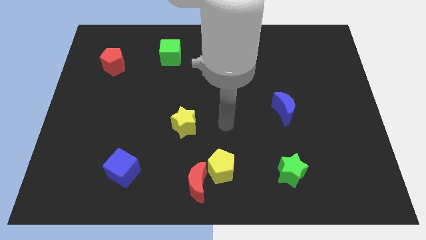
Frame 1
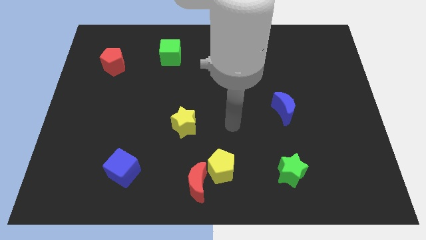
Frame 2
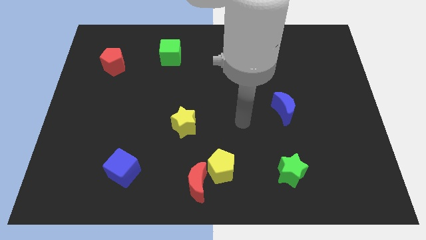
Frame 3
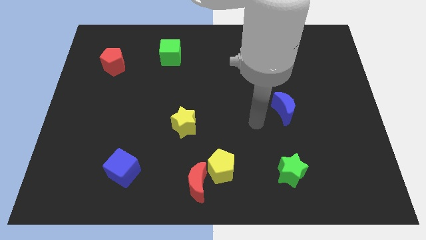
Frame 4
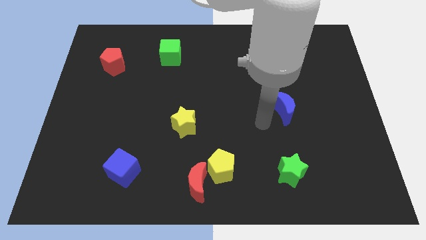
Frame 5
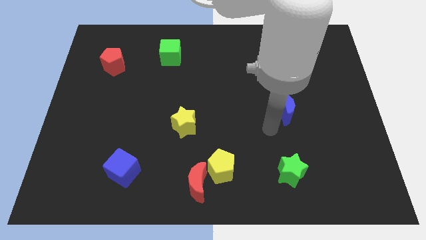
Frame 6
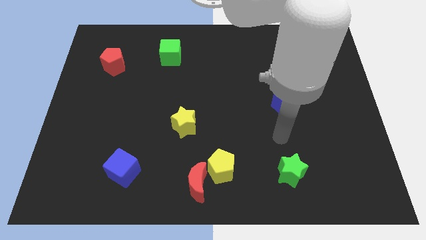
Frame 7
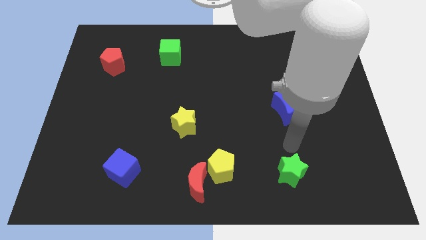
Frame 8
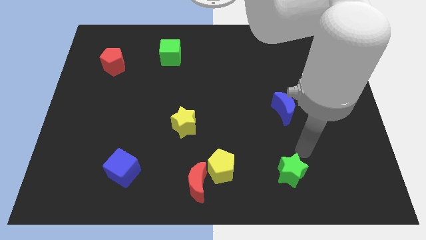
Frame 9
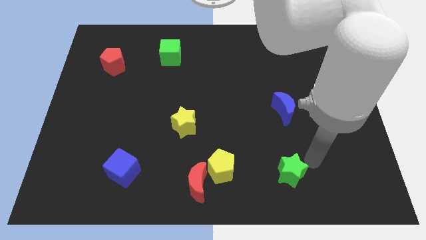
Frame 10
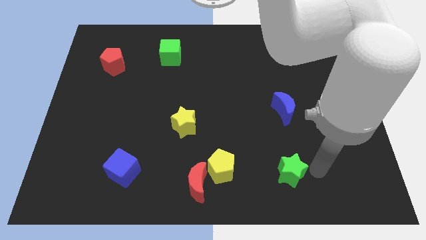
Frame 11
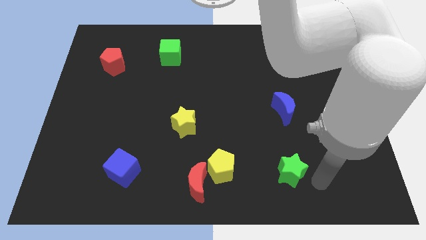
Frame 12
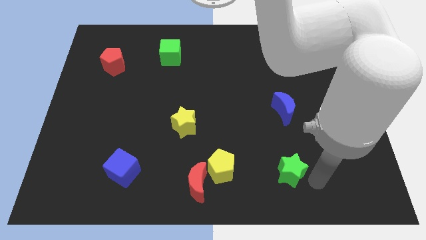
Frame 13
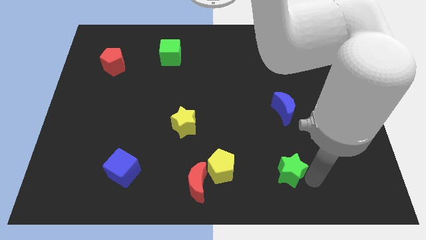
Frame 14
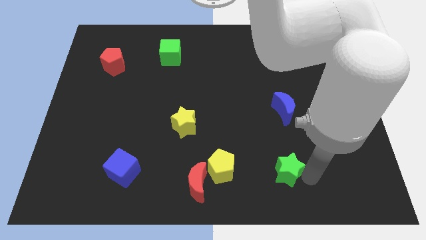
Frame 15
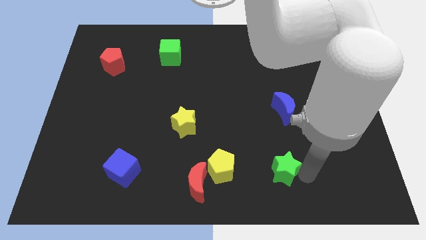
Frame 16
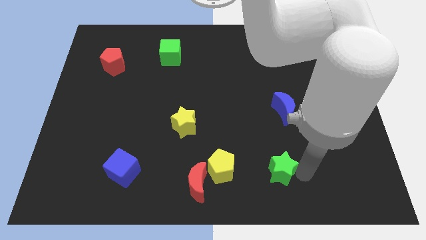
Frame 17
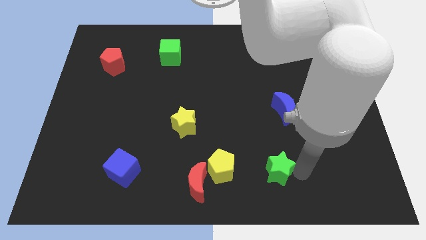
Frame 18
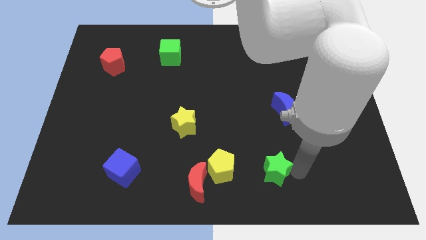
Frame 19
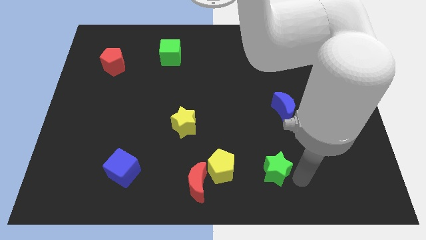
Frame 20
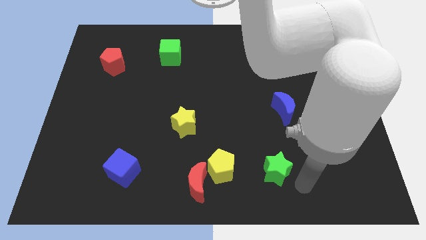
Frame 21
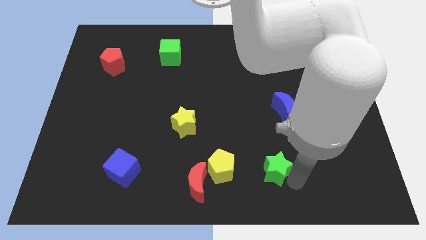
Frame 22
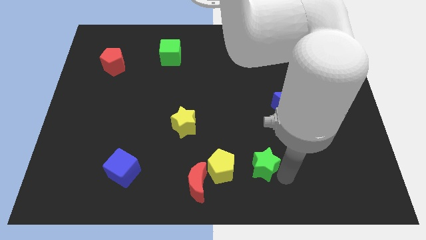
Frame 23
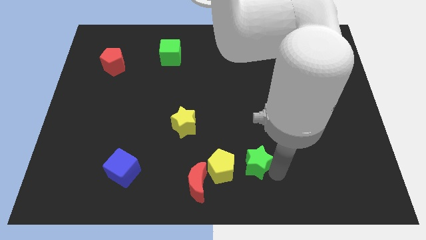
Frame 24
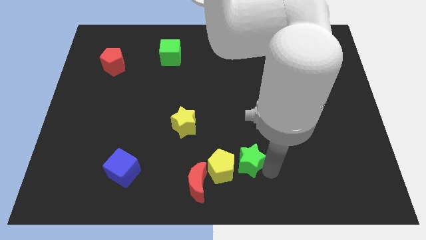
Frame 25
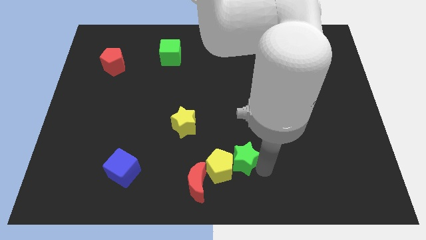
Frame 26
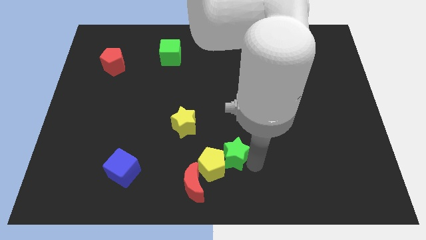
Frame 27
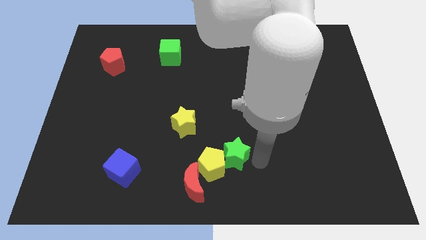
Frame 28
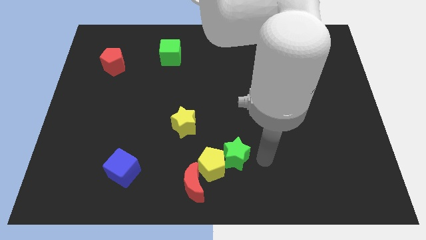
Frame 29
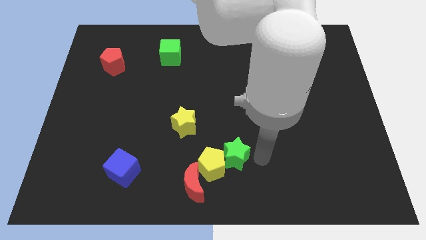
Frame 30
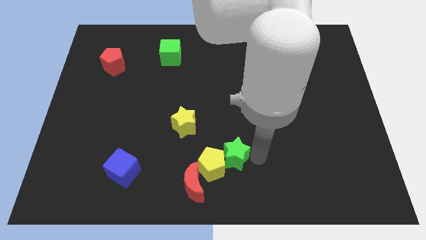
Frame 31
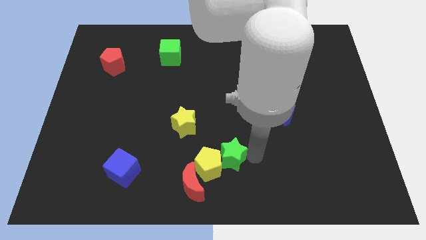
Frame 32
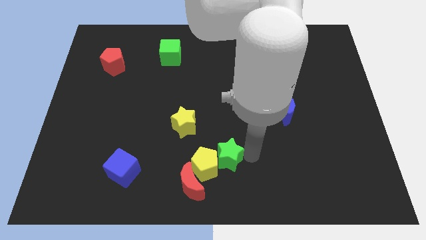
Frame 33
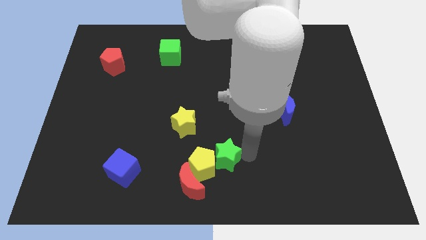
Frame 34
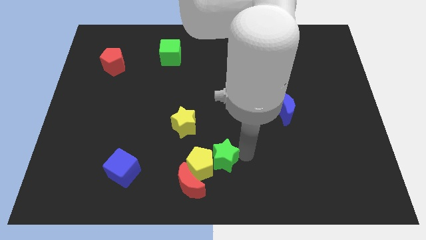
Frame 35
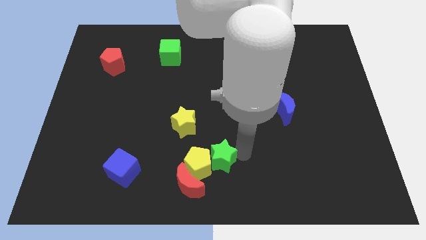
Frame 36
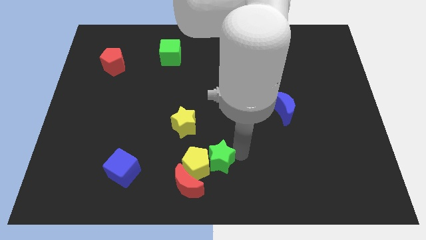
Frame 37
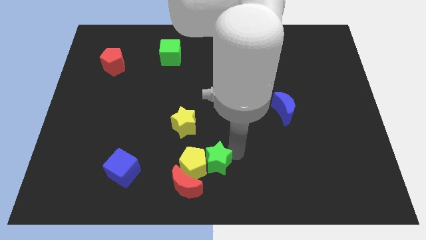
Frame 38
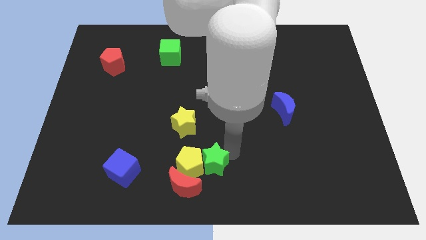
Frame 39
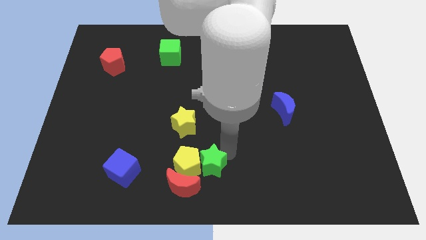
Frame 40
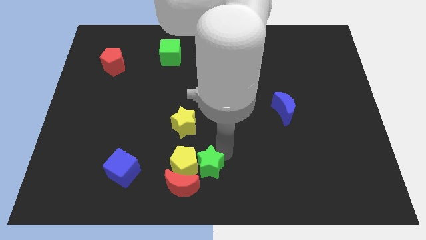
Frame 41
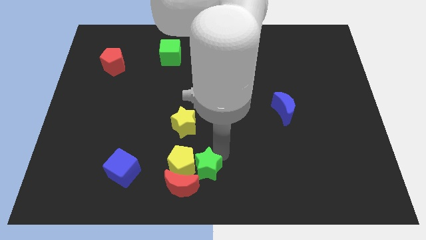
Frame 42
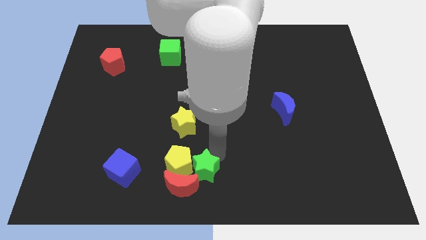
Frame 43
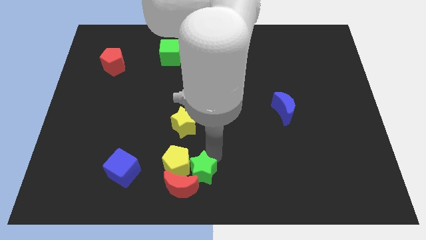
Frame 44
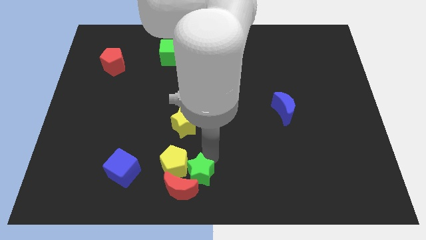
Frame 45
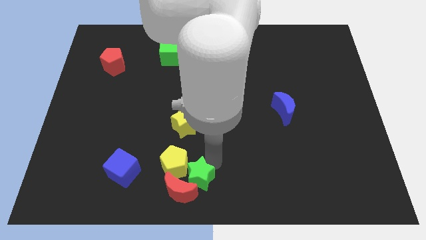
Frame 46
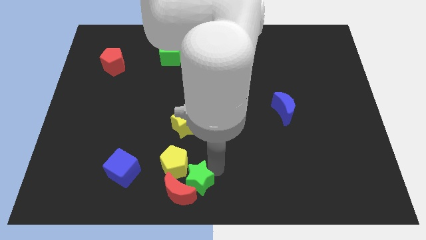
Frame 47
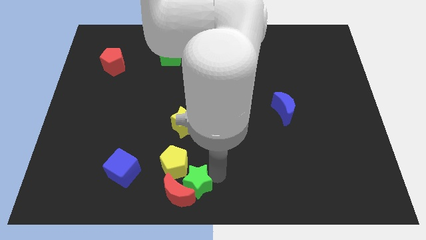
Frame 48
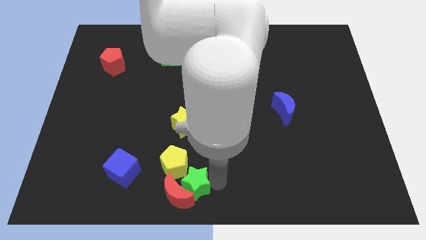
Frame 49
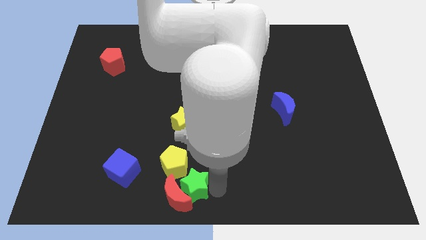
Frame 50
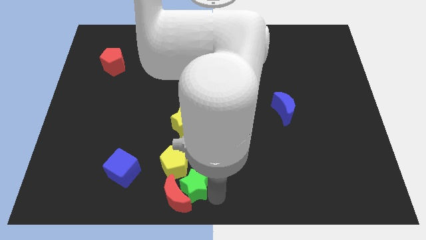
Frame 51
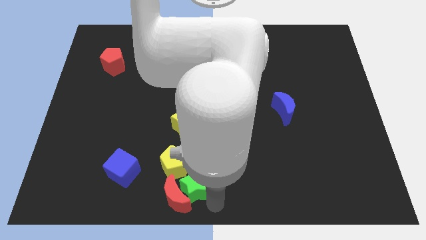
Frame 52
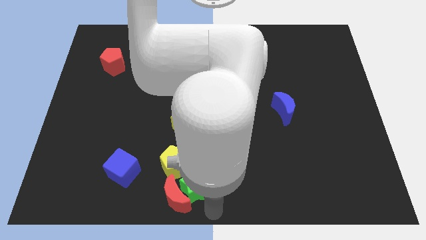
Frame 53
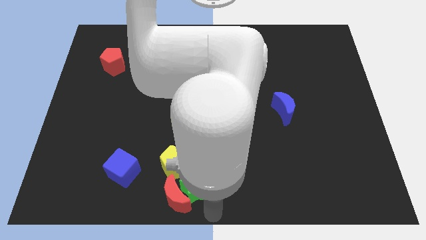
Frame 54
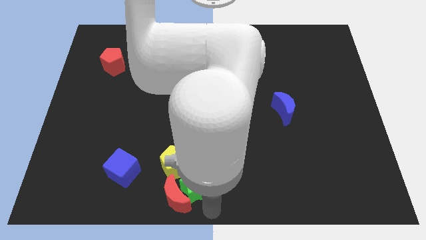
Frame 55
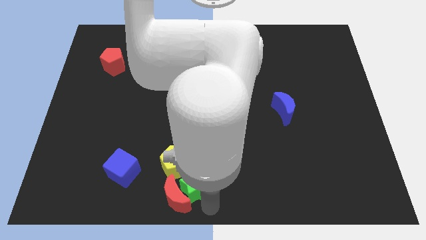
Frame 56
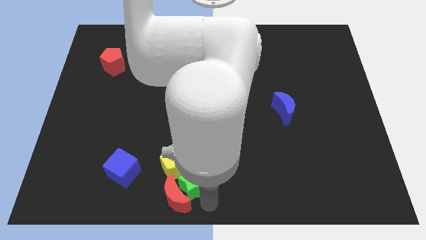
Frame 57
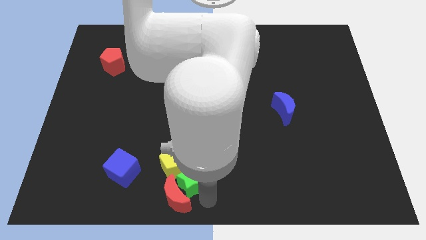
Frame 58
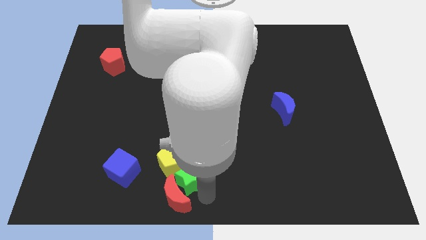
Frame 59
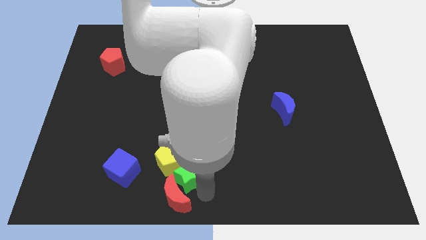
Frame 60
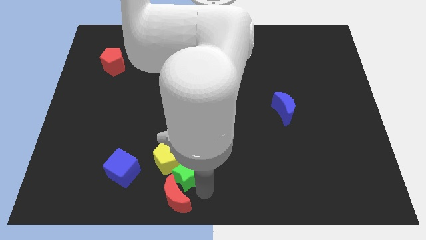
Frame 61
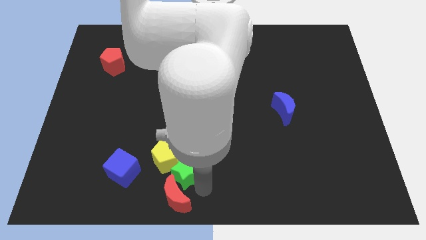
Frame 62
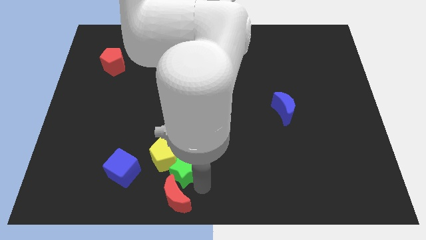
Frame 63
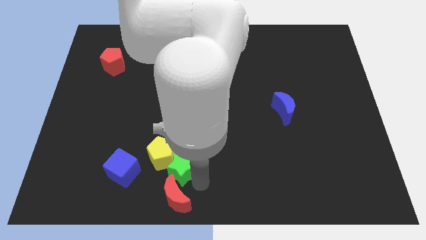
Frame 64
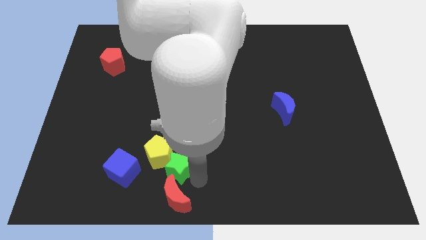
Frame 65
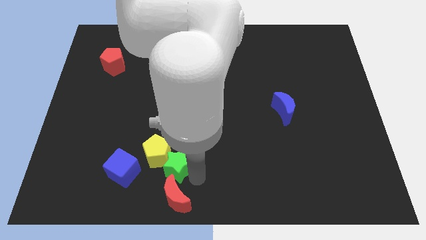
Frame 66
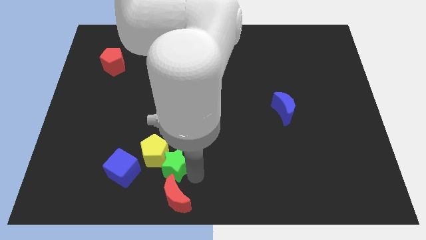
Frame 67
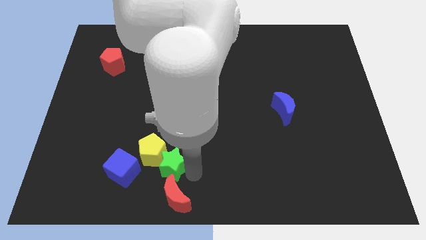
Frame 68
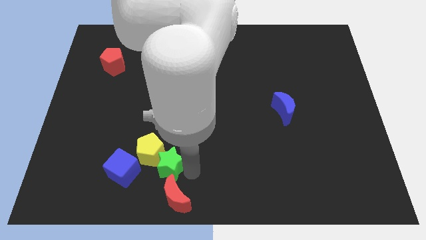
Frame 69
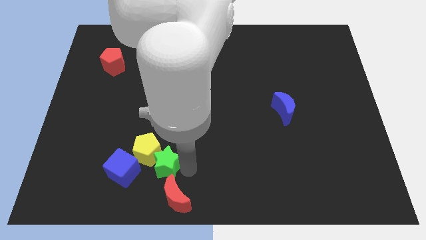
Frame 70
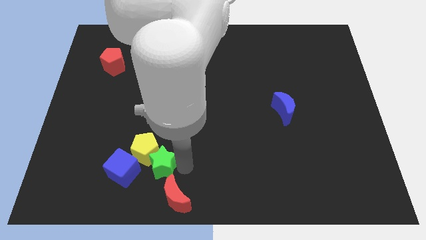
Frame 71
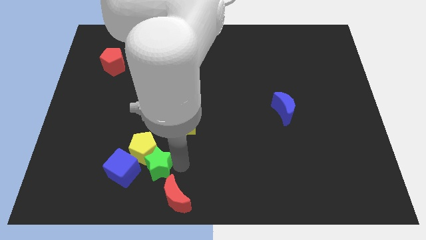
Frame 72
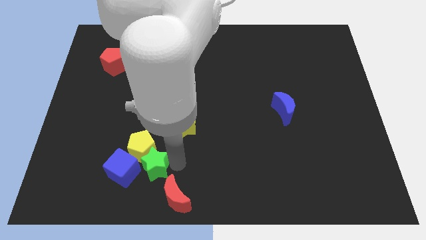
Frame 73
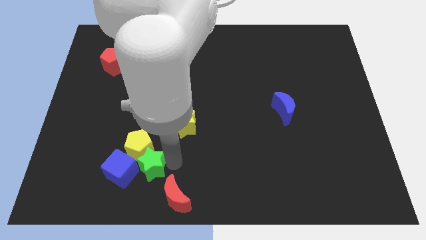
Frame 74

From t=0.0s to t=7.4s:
slide the green star to the blue cube
